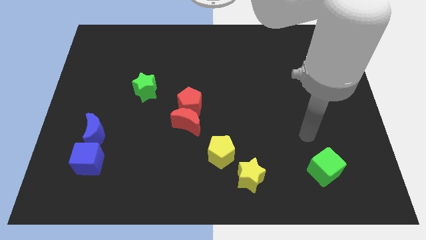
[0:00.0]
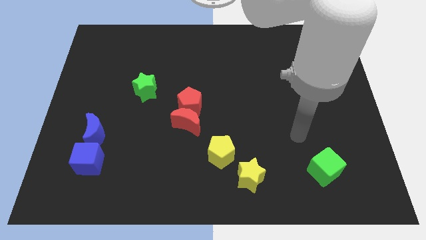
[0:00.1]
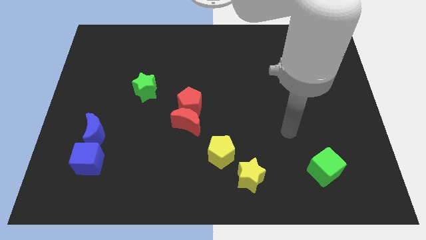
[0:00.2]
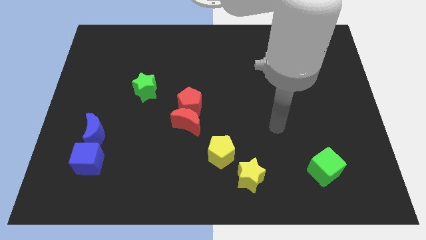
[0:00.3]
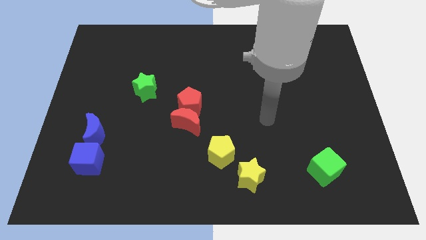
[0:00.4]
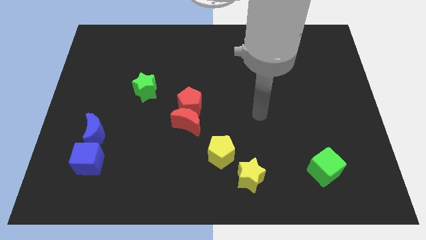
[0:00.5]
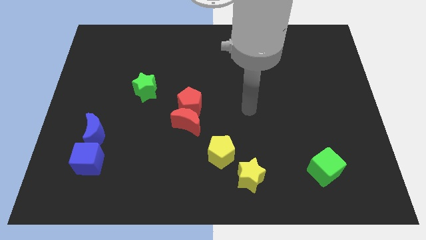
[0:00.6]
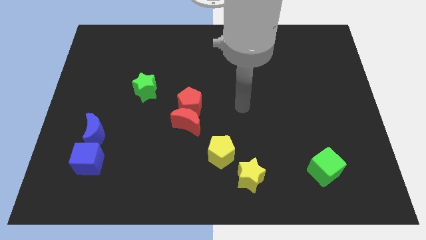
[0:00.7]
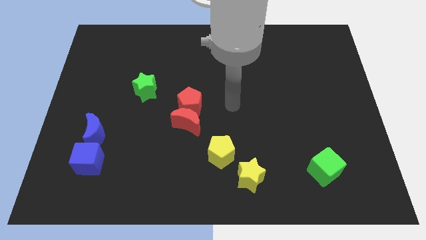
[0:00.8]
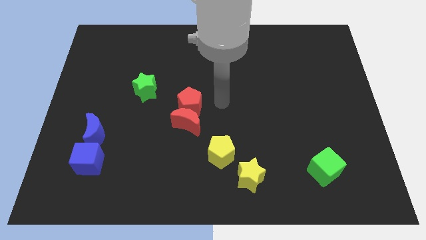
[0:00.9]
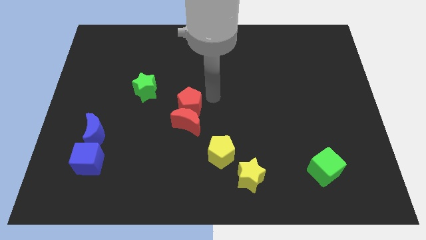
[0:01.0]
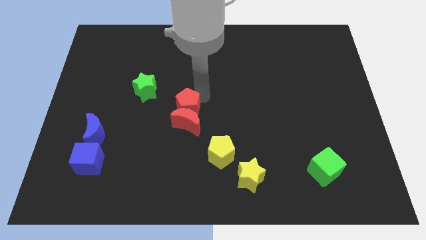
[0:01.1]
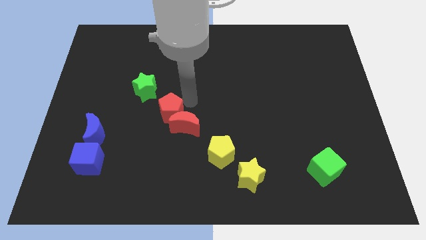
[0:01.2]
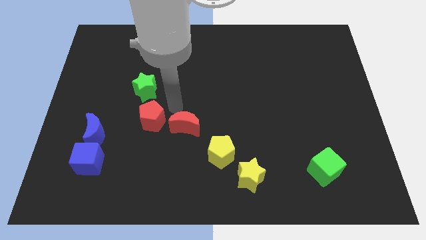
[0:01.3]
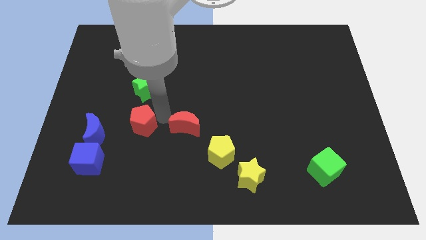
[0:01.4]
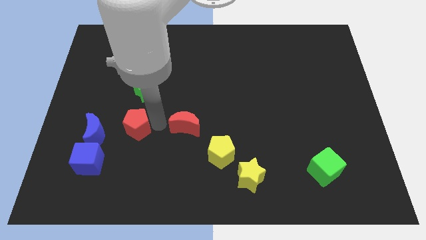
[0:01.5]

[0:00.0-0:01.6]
separate the red moon from the red pentagon

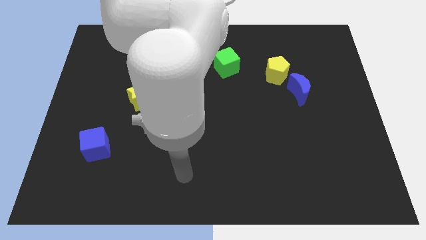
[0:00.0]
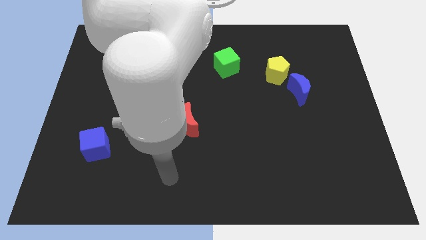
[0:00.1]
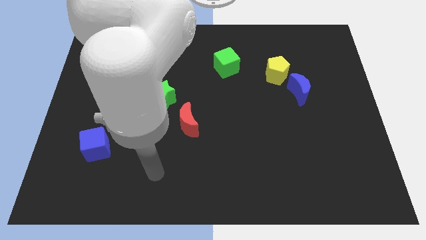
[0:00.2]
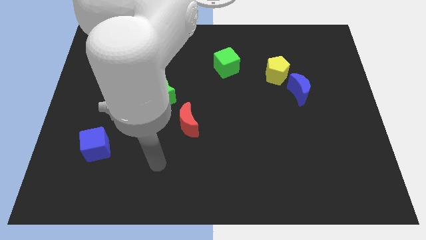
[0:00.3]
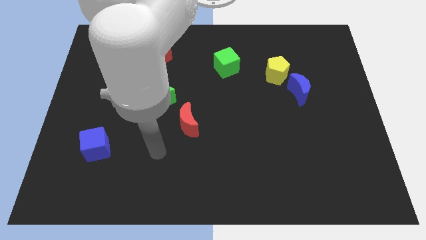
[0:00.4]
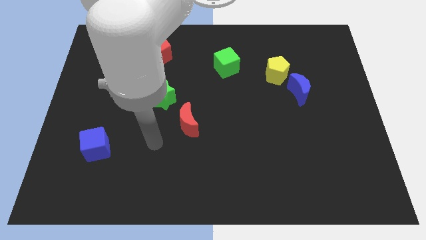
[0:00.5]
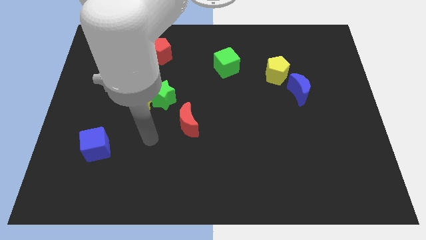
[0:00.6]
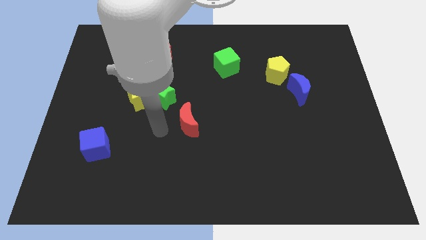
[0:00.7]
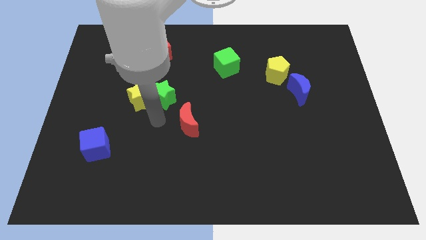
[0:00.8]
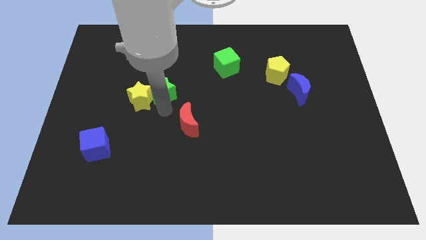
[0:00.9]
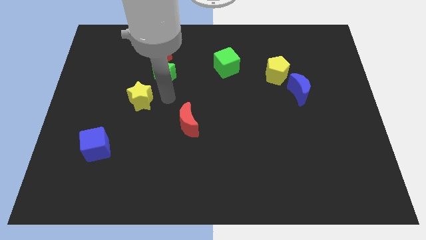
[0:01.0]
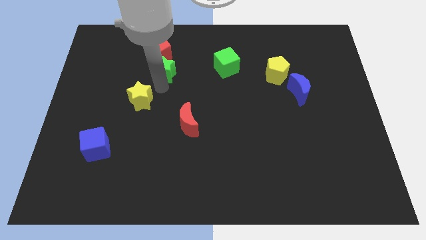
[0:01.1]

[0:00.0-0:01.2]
pull the yellow star apart from the green star

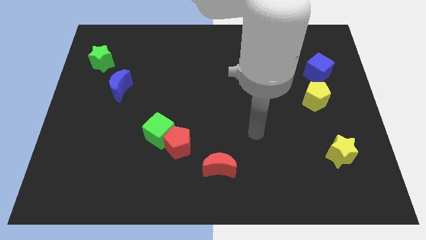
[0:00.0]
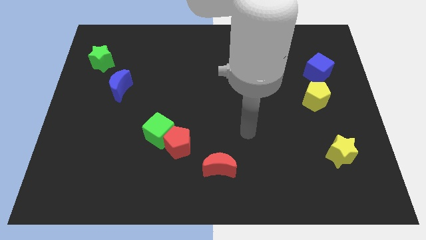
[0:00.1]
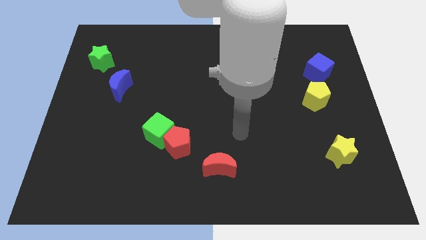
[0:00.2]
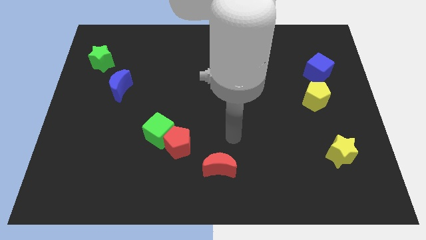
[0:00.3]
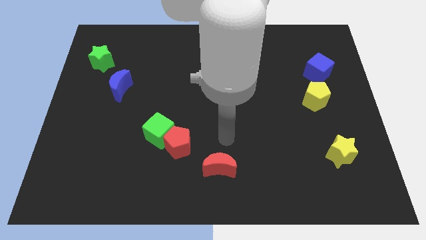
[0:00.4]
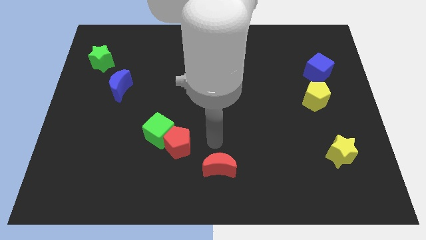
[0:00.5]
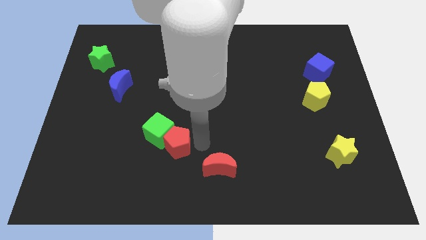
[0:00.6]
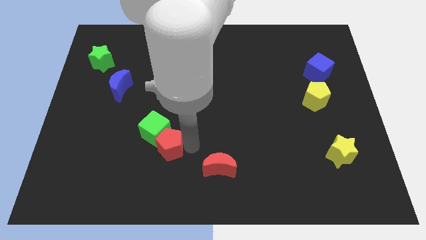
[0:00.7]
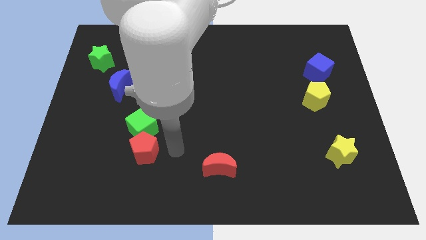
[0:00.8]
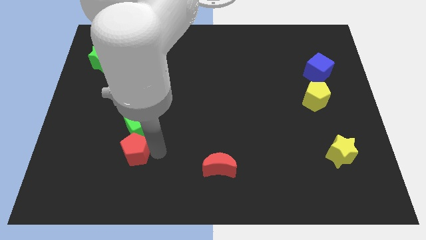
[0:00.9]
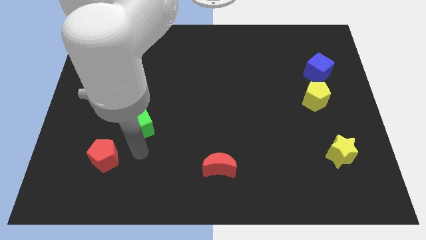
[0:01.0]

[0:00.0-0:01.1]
pull the green cube apart from the red pentagon

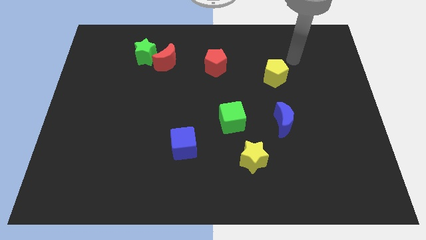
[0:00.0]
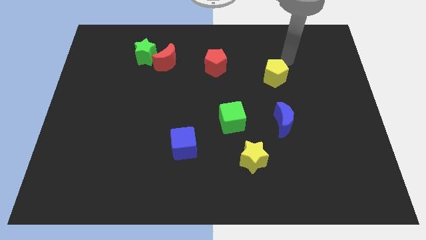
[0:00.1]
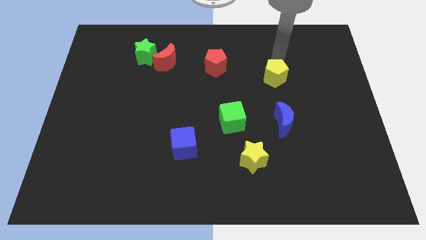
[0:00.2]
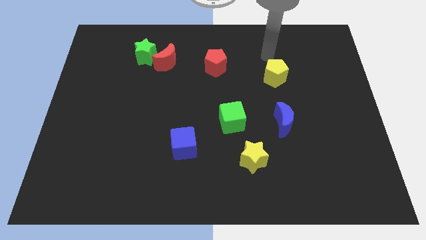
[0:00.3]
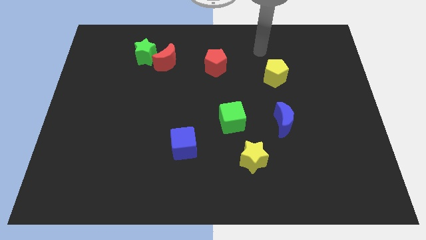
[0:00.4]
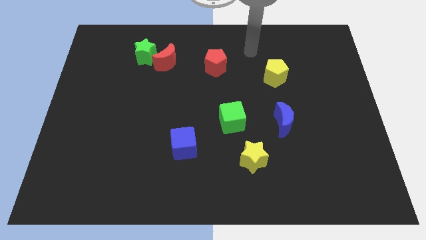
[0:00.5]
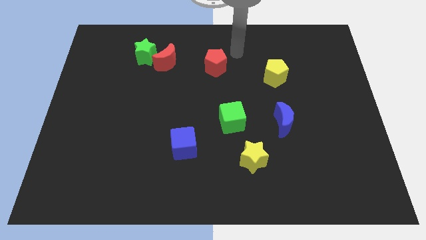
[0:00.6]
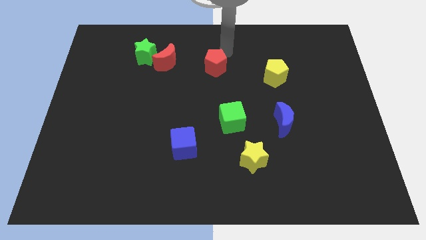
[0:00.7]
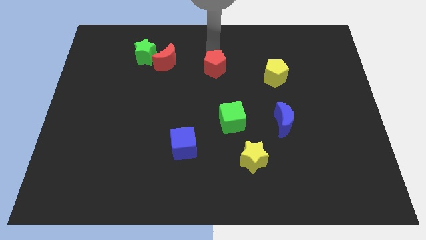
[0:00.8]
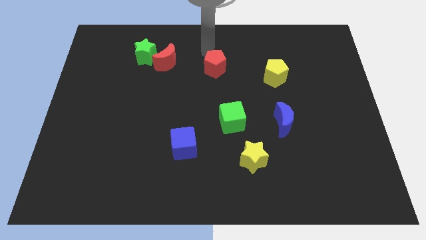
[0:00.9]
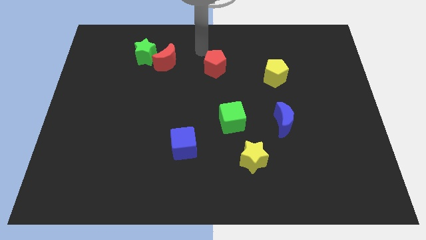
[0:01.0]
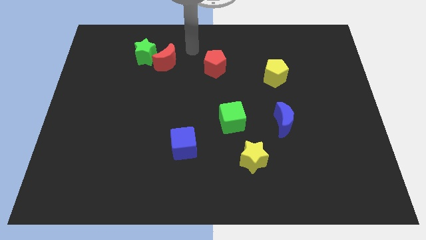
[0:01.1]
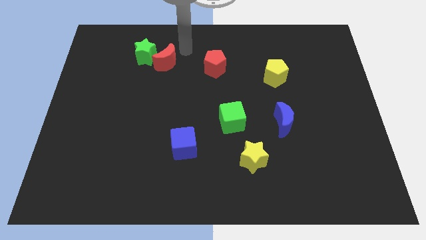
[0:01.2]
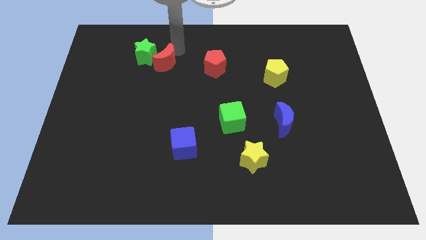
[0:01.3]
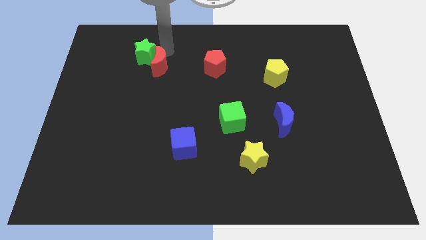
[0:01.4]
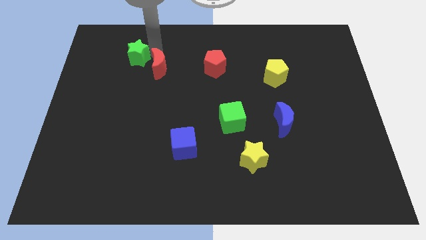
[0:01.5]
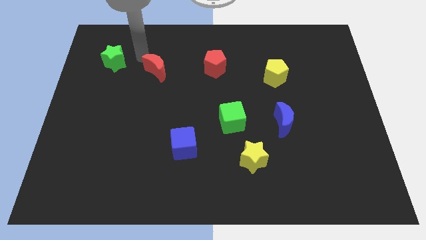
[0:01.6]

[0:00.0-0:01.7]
move the red moon away from the green star

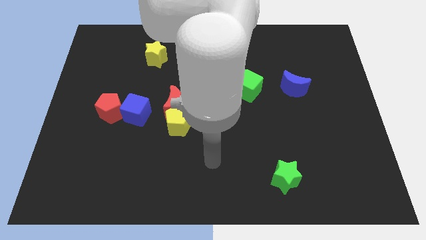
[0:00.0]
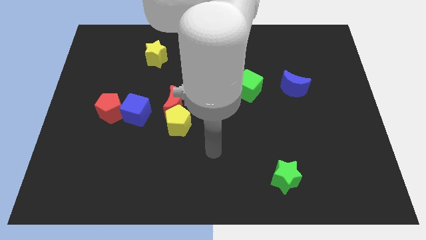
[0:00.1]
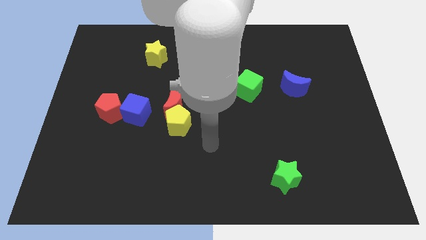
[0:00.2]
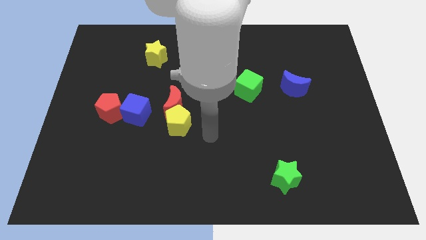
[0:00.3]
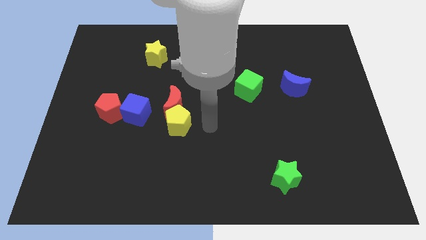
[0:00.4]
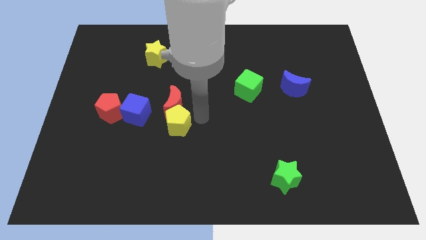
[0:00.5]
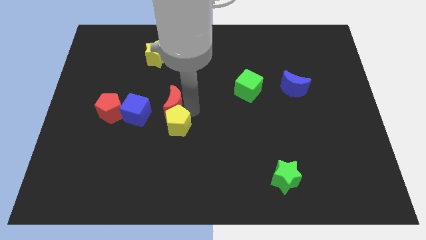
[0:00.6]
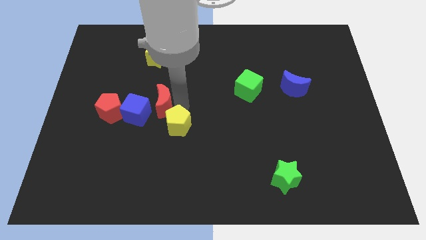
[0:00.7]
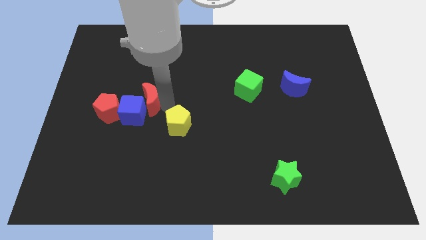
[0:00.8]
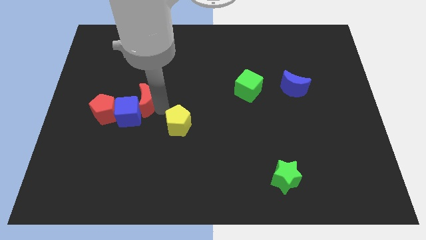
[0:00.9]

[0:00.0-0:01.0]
move the yellow pentagon away from the red moon

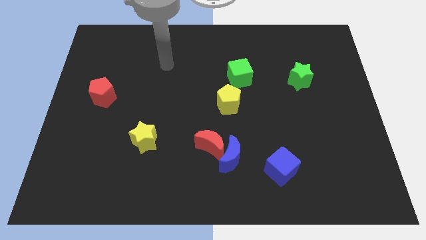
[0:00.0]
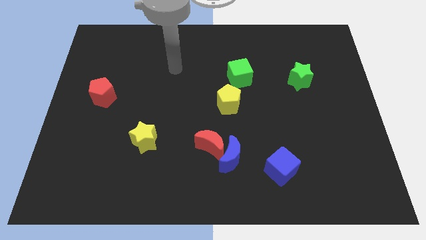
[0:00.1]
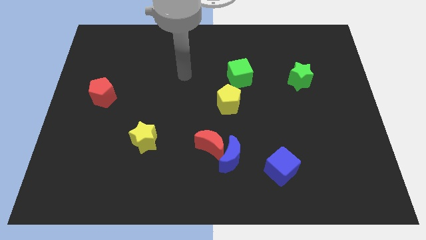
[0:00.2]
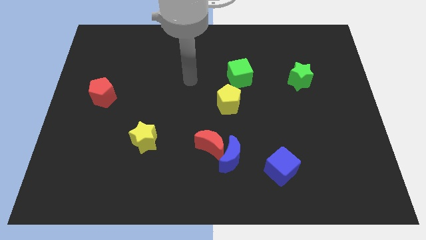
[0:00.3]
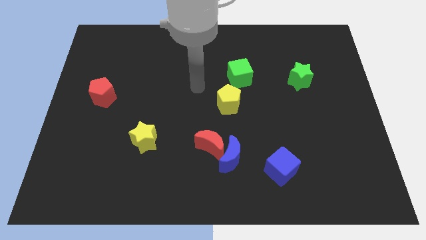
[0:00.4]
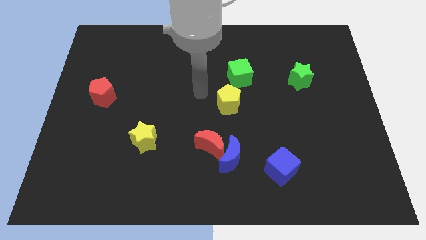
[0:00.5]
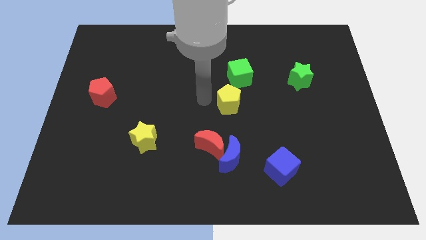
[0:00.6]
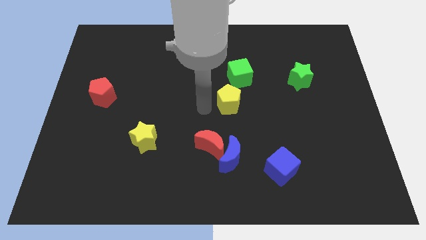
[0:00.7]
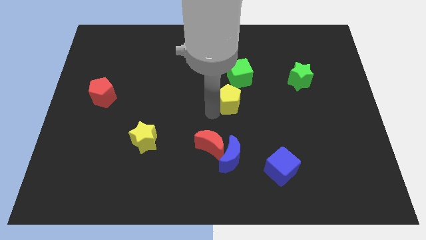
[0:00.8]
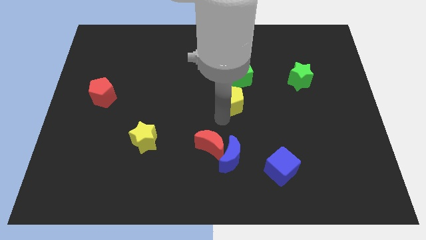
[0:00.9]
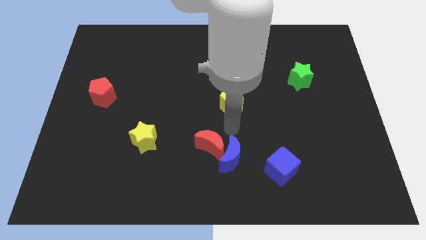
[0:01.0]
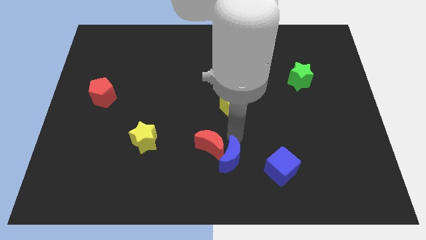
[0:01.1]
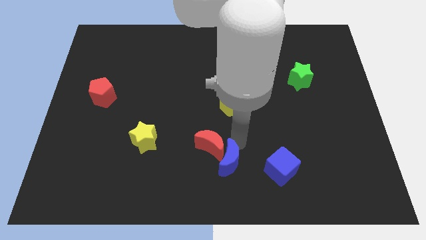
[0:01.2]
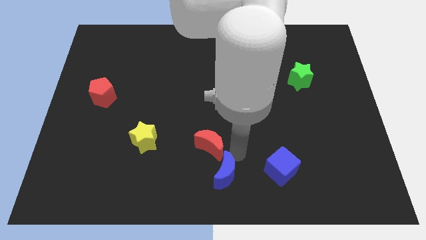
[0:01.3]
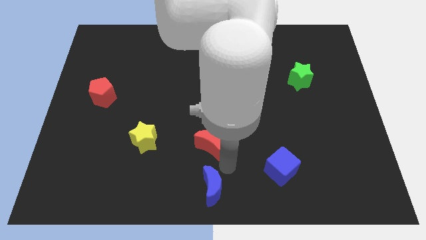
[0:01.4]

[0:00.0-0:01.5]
pull the red moon apart from the blue moon

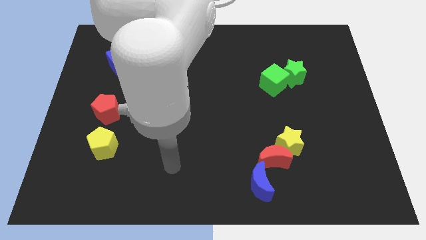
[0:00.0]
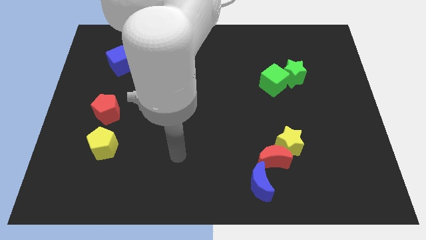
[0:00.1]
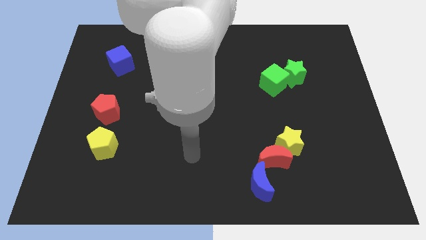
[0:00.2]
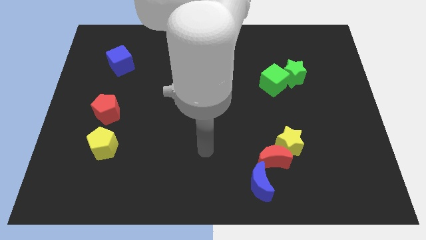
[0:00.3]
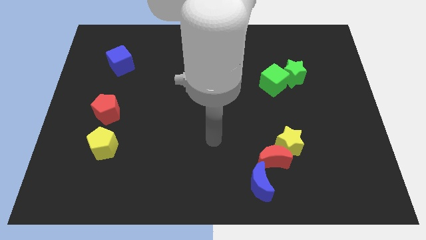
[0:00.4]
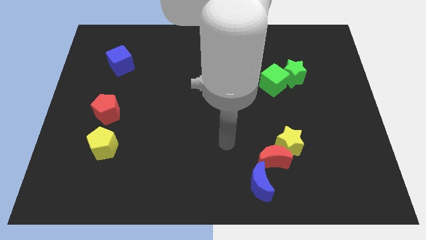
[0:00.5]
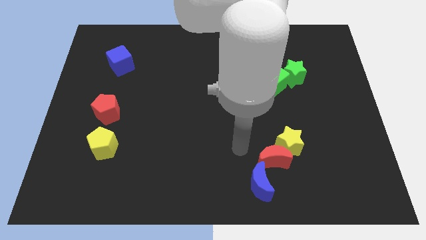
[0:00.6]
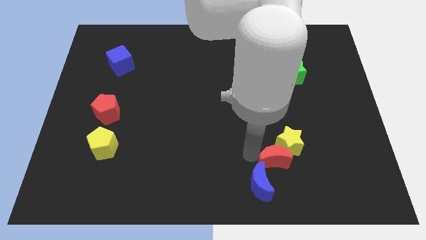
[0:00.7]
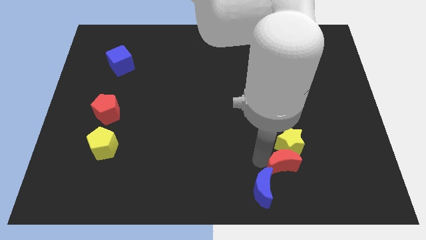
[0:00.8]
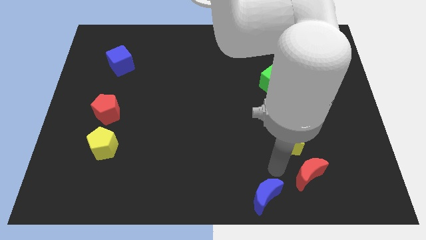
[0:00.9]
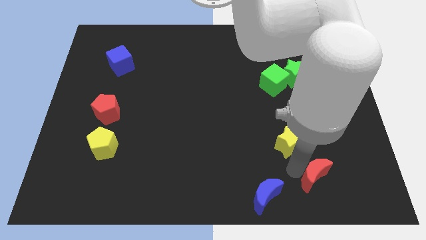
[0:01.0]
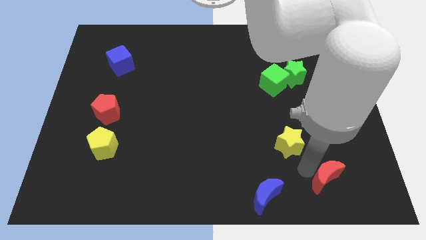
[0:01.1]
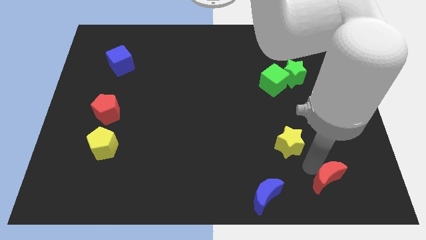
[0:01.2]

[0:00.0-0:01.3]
pull the yellow star apart from the red moon
